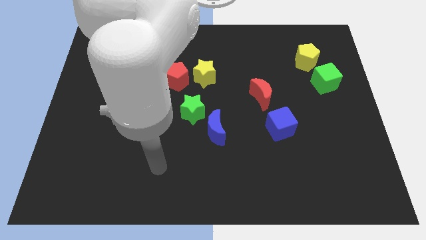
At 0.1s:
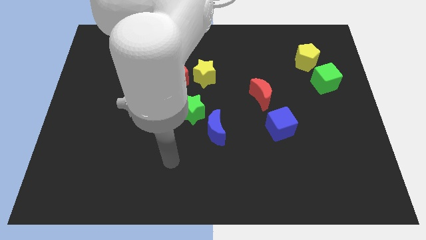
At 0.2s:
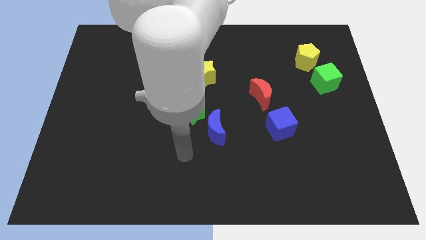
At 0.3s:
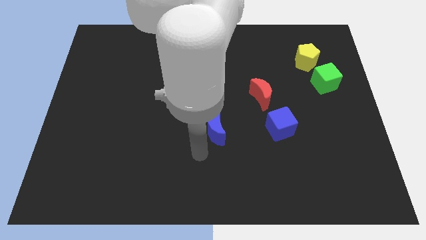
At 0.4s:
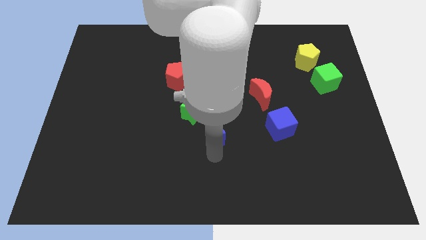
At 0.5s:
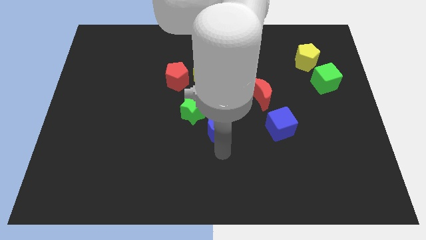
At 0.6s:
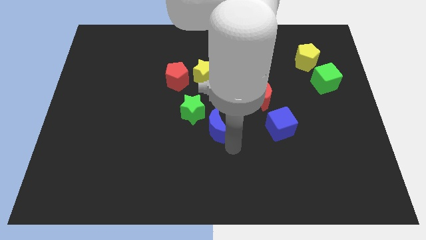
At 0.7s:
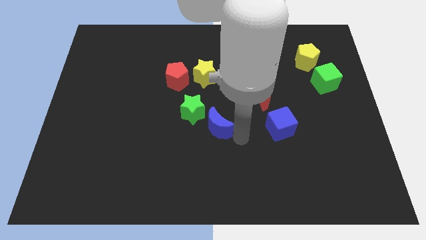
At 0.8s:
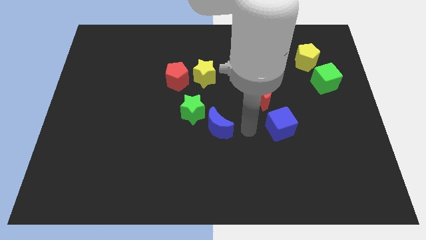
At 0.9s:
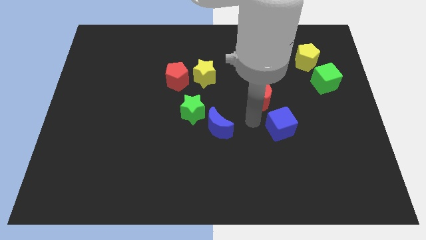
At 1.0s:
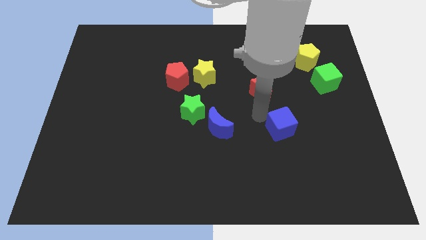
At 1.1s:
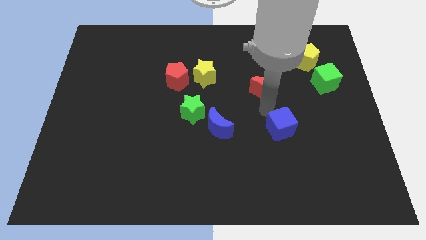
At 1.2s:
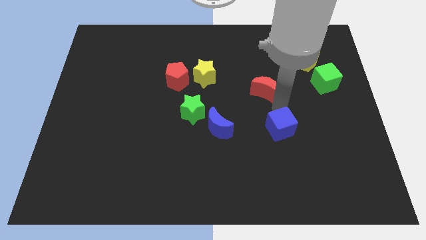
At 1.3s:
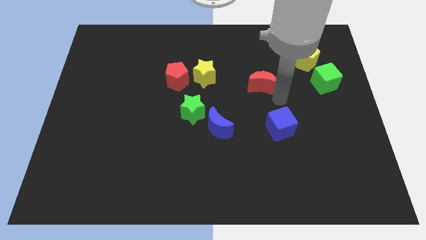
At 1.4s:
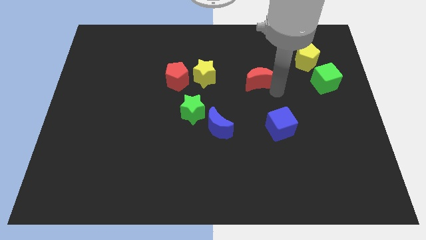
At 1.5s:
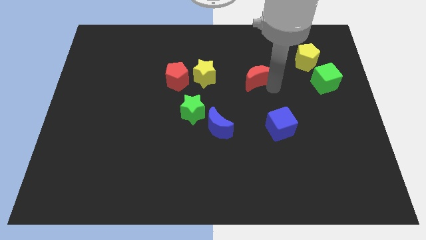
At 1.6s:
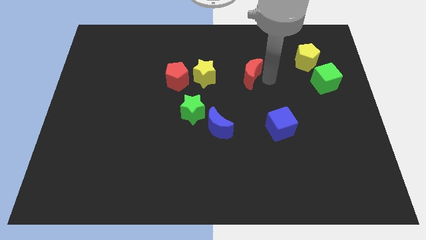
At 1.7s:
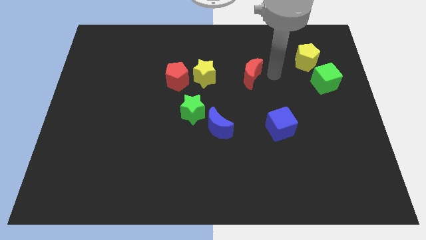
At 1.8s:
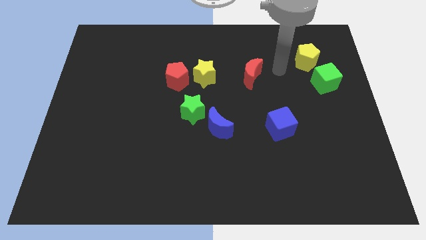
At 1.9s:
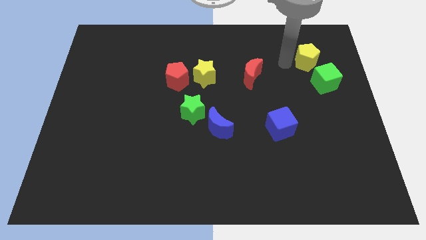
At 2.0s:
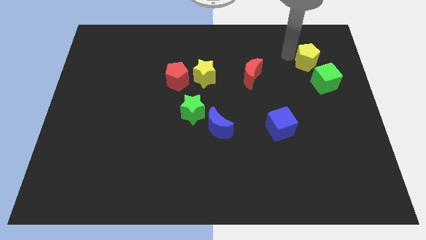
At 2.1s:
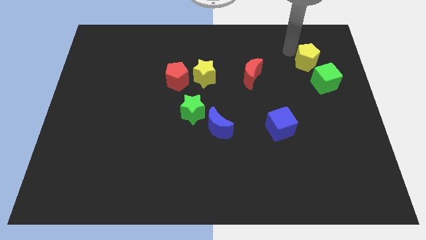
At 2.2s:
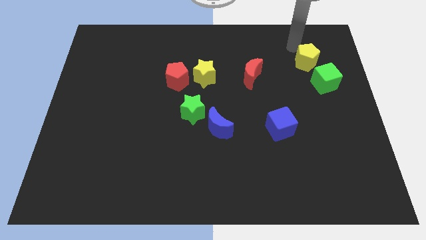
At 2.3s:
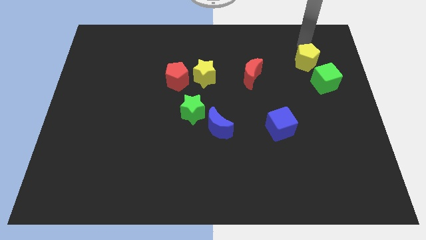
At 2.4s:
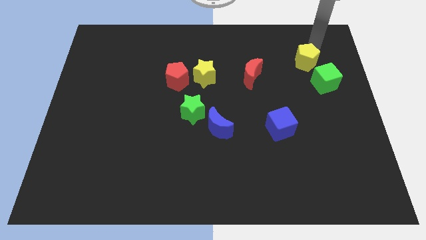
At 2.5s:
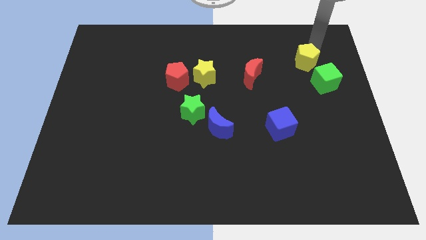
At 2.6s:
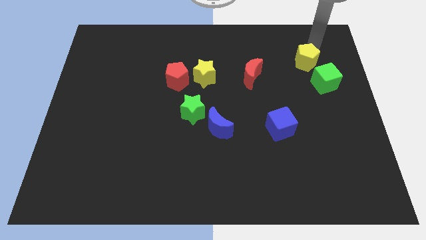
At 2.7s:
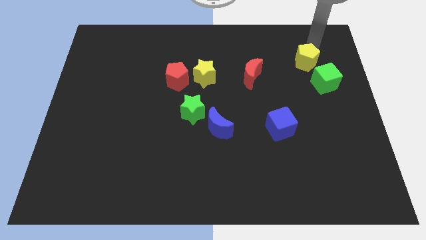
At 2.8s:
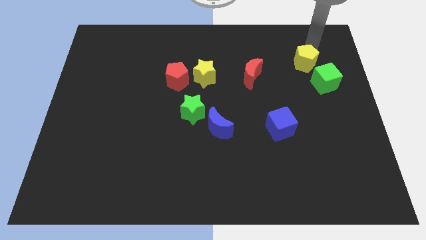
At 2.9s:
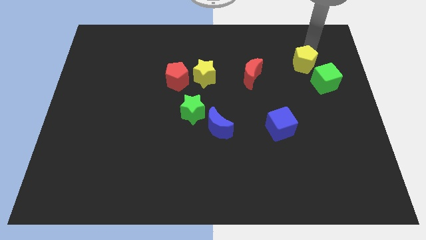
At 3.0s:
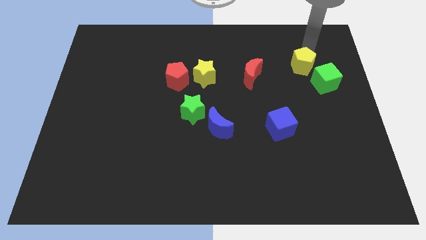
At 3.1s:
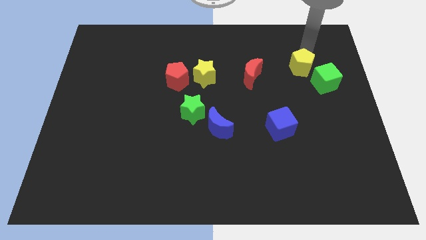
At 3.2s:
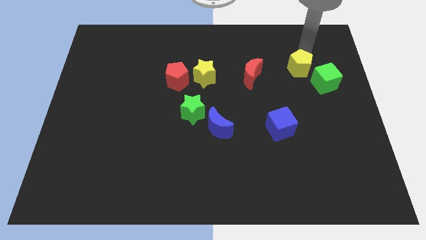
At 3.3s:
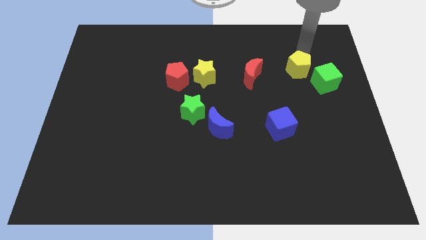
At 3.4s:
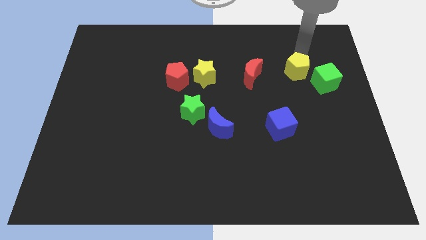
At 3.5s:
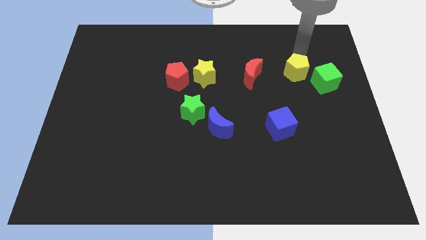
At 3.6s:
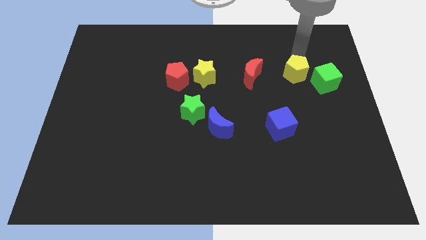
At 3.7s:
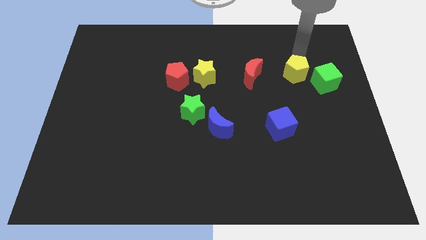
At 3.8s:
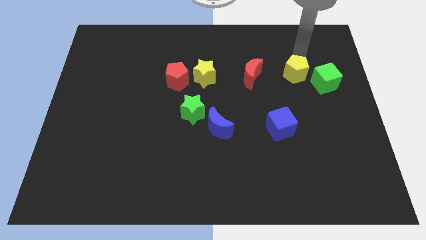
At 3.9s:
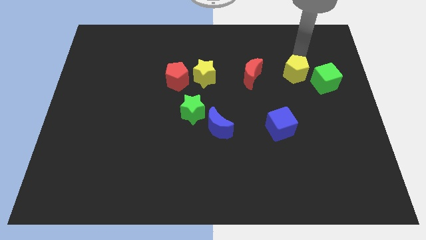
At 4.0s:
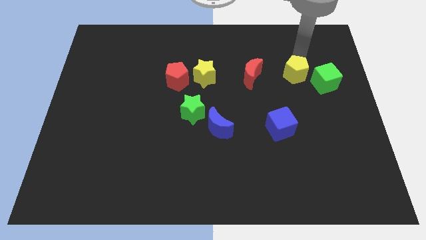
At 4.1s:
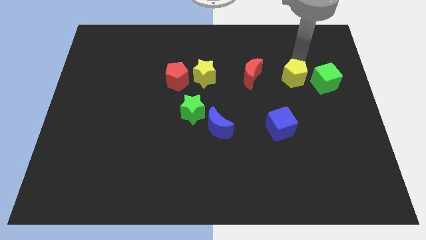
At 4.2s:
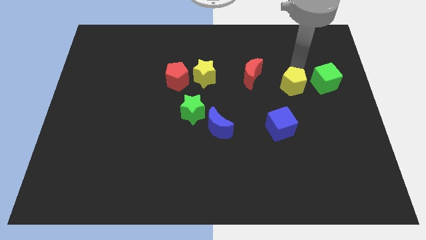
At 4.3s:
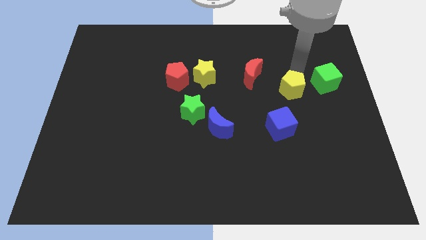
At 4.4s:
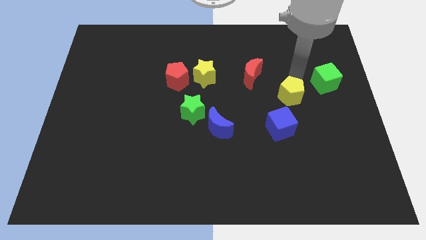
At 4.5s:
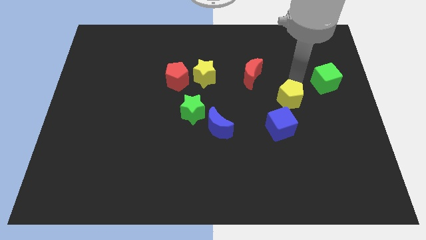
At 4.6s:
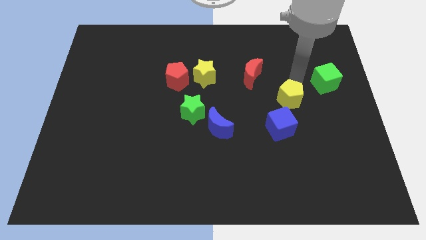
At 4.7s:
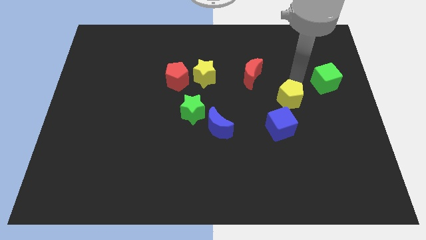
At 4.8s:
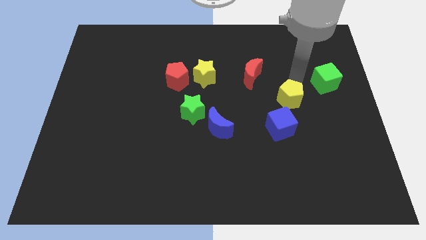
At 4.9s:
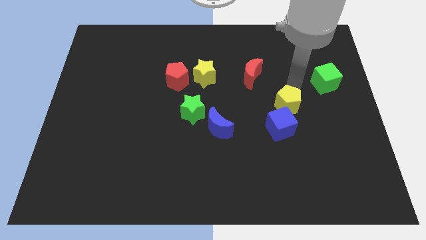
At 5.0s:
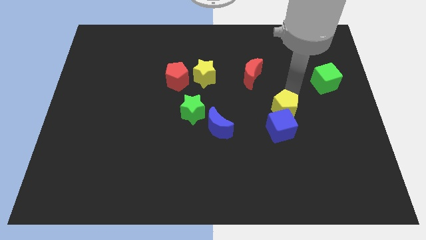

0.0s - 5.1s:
move the yellow pentagon close to the blue cube

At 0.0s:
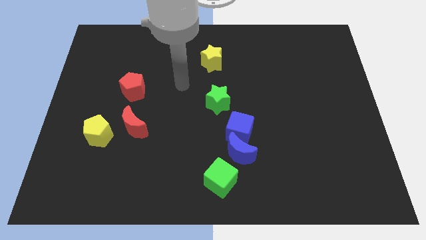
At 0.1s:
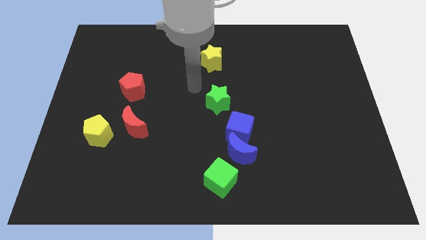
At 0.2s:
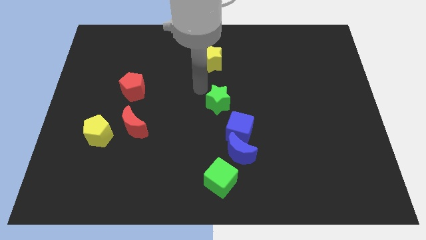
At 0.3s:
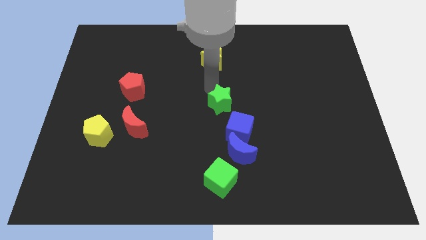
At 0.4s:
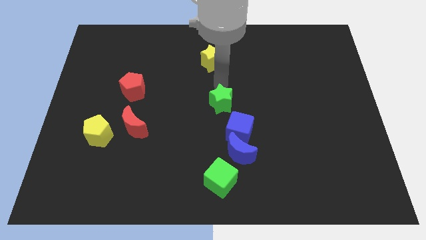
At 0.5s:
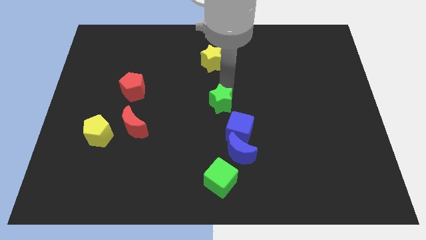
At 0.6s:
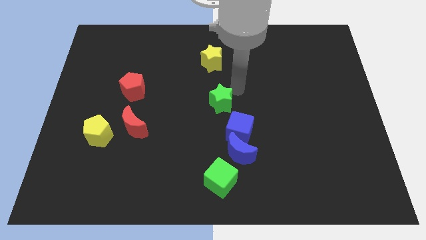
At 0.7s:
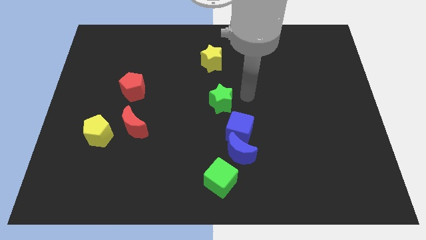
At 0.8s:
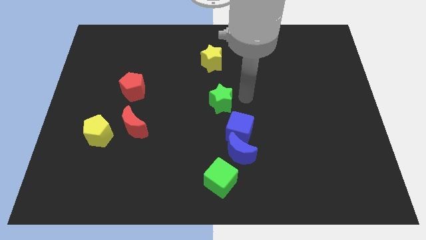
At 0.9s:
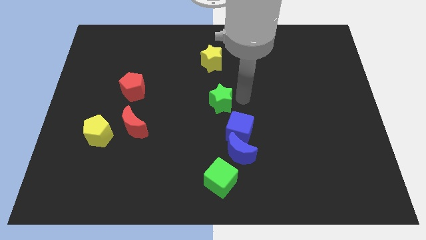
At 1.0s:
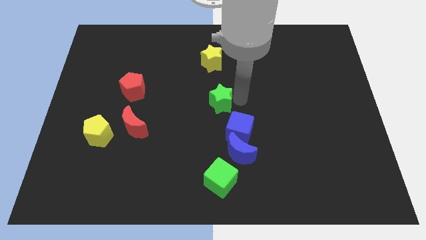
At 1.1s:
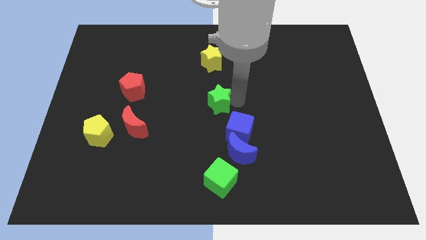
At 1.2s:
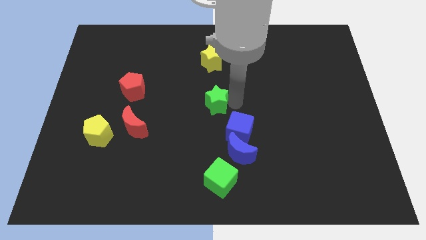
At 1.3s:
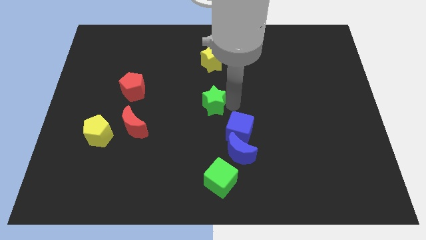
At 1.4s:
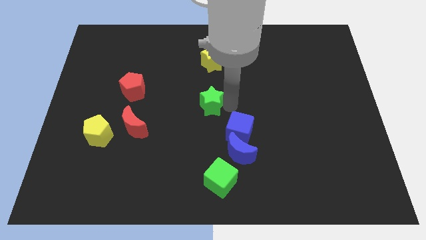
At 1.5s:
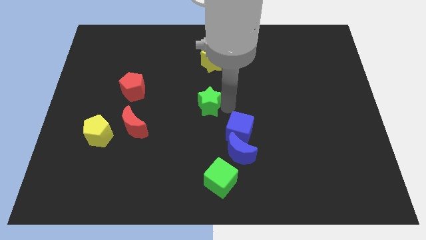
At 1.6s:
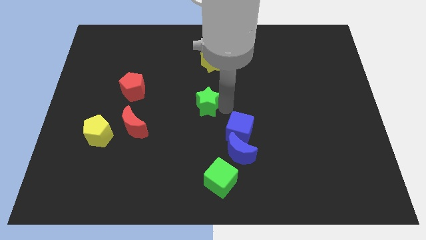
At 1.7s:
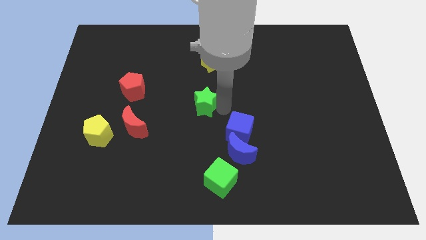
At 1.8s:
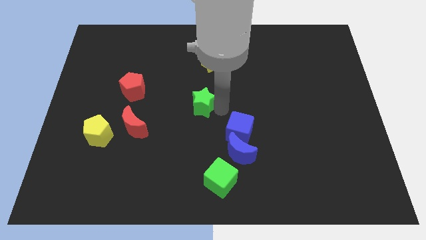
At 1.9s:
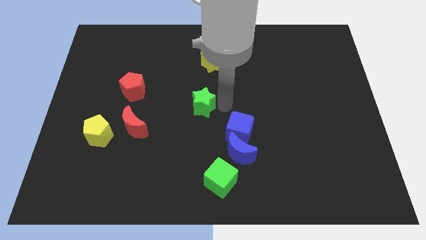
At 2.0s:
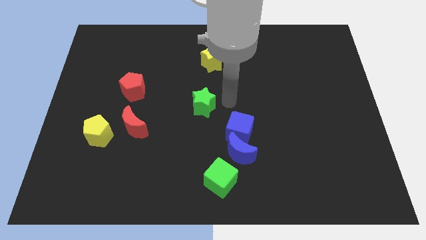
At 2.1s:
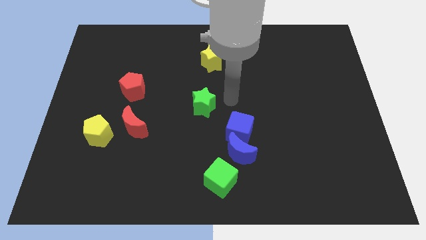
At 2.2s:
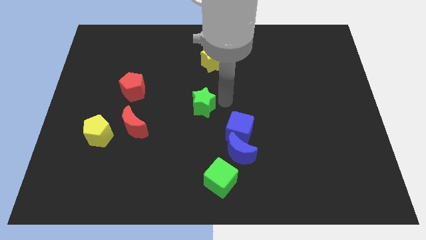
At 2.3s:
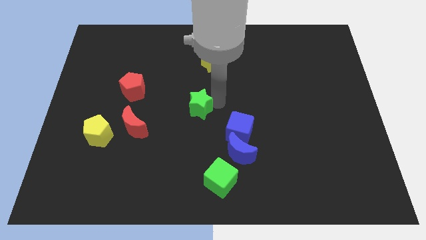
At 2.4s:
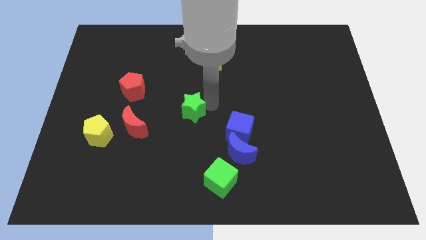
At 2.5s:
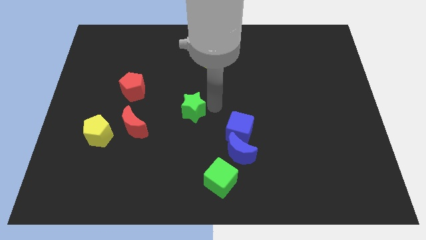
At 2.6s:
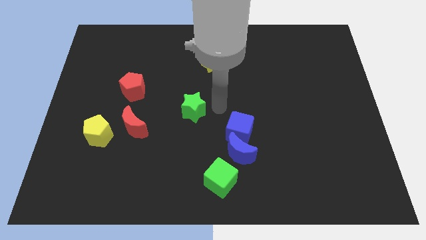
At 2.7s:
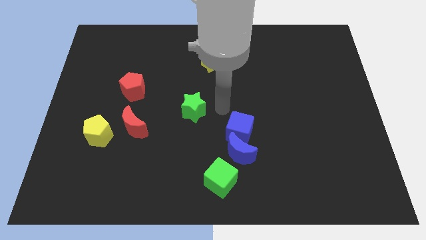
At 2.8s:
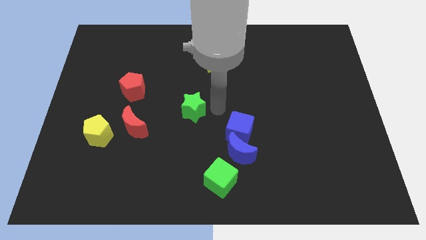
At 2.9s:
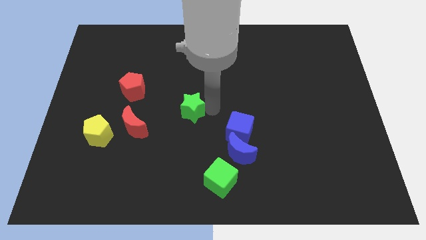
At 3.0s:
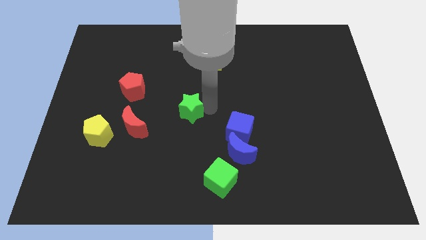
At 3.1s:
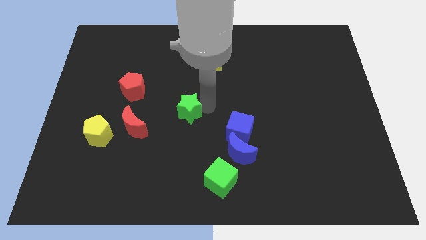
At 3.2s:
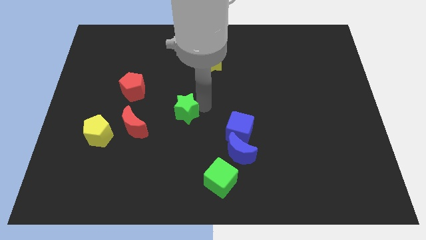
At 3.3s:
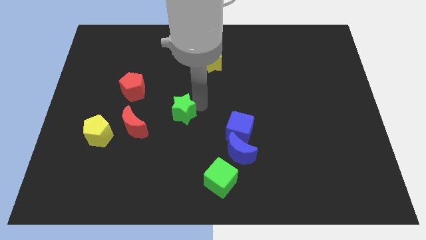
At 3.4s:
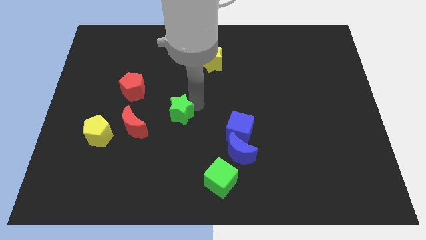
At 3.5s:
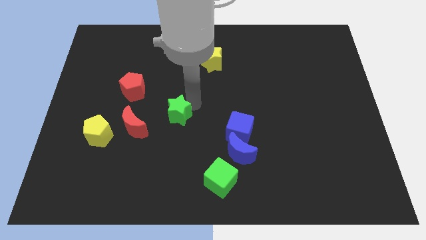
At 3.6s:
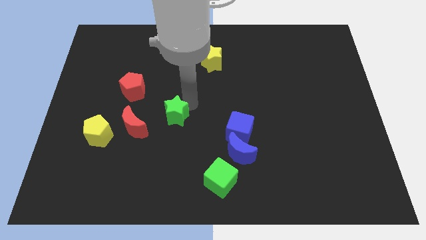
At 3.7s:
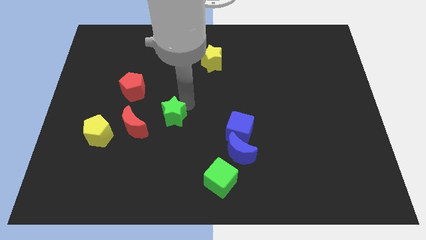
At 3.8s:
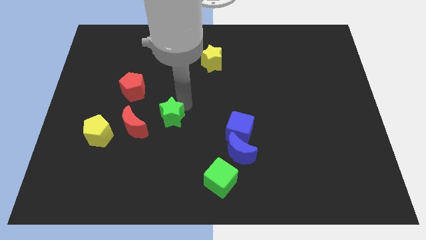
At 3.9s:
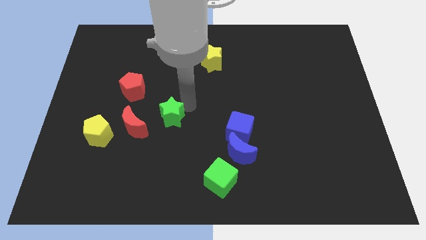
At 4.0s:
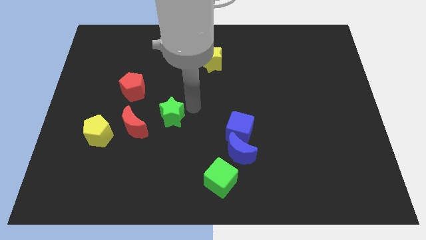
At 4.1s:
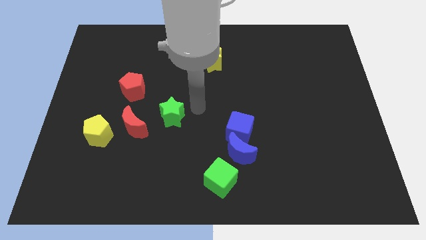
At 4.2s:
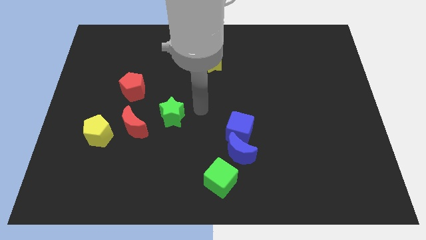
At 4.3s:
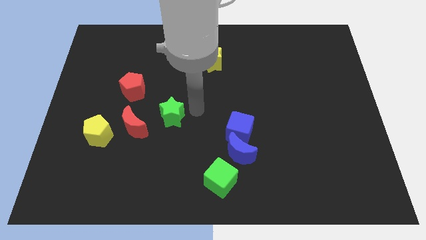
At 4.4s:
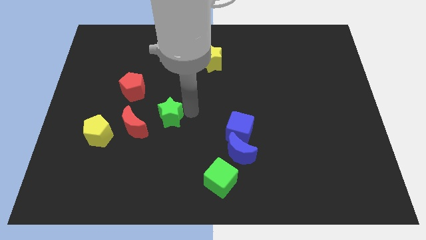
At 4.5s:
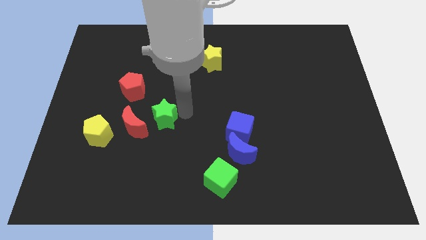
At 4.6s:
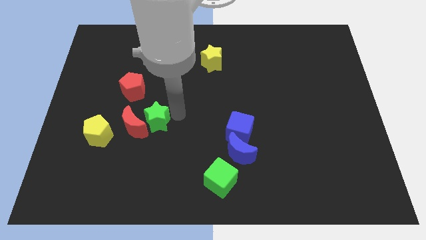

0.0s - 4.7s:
slide the green star towards the red moon
